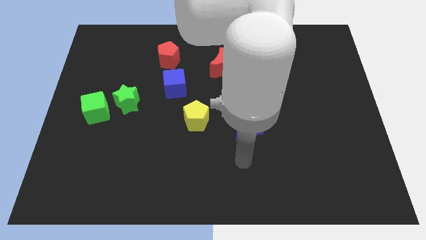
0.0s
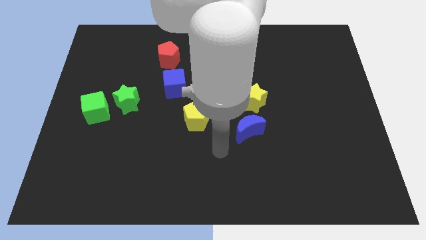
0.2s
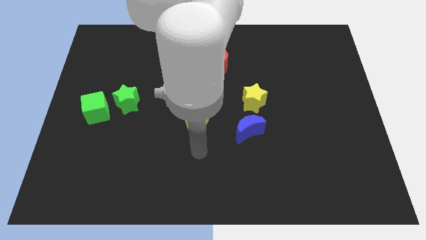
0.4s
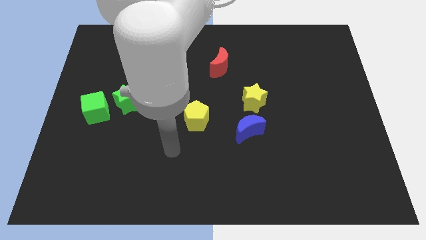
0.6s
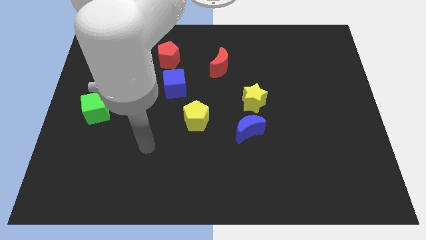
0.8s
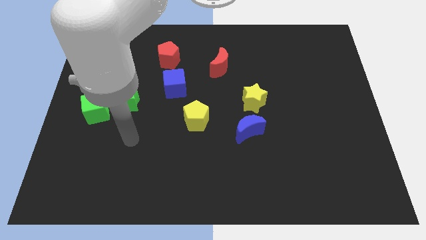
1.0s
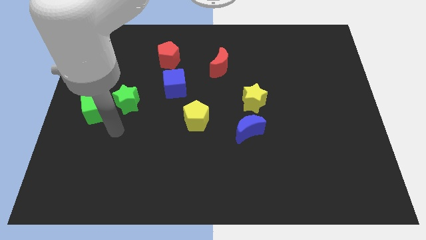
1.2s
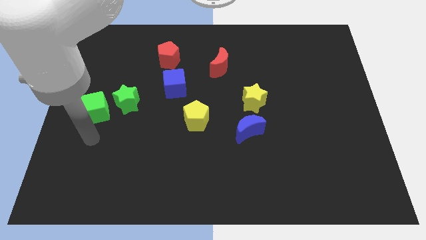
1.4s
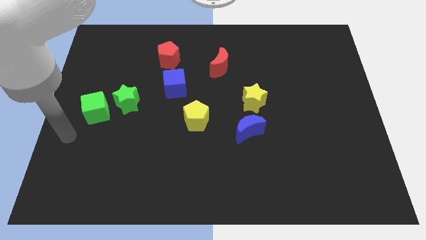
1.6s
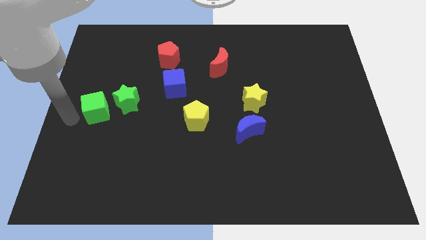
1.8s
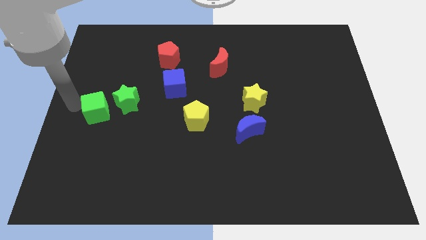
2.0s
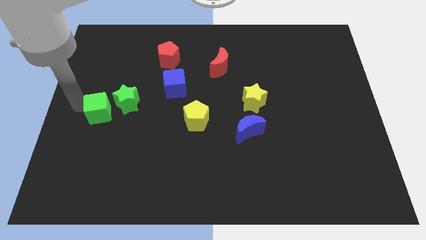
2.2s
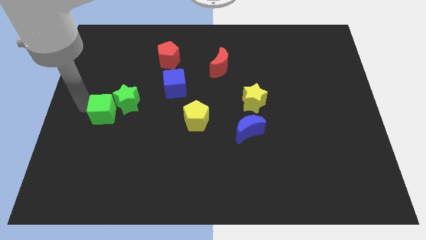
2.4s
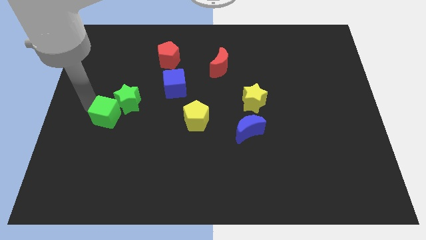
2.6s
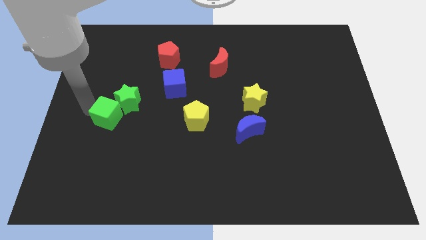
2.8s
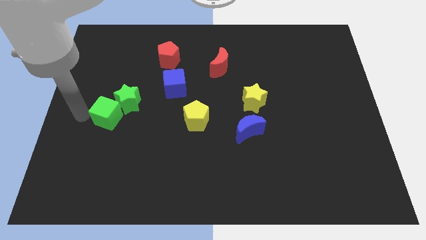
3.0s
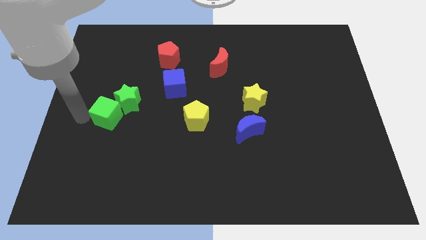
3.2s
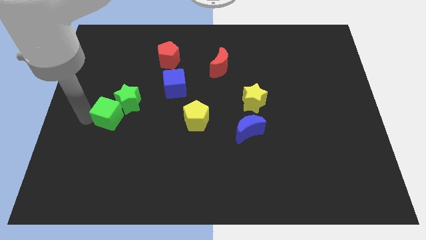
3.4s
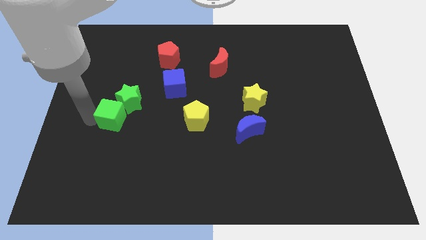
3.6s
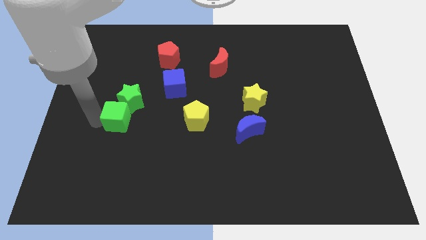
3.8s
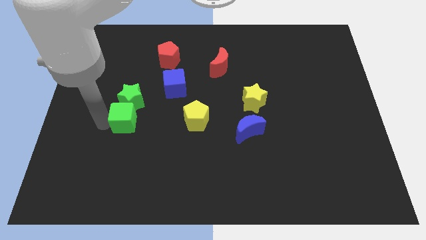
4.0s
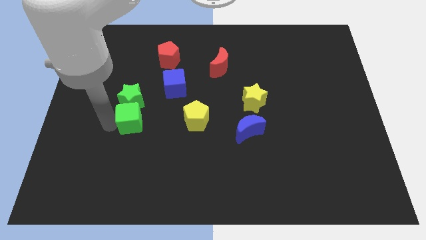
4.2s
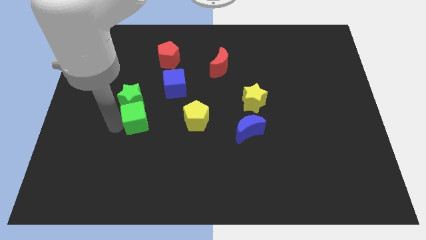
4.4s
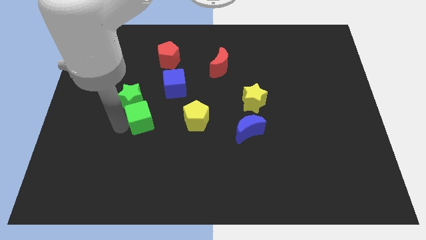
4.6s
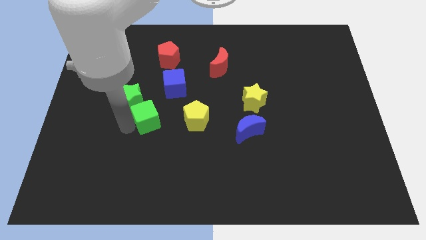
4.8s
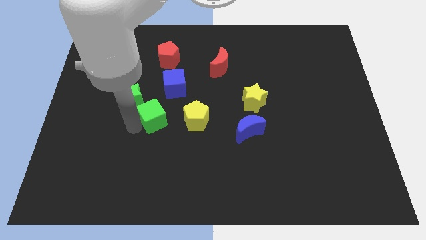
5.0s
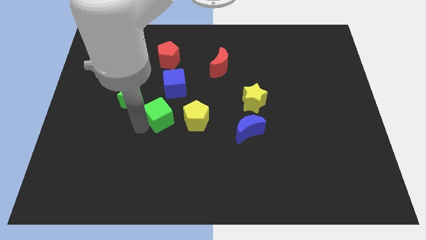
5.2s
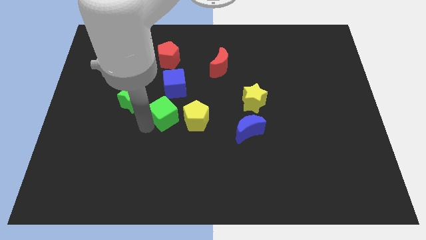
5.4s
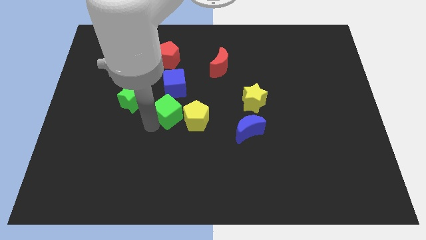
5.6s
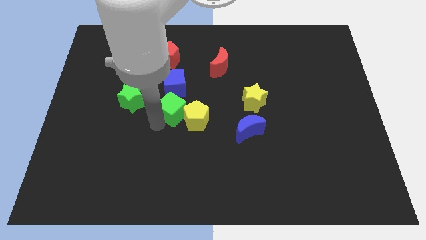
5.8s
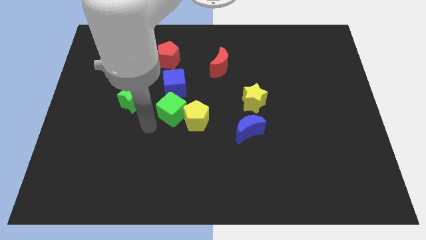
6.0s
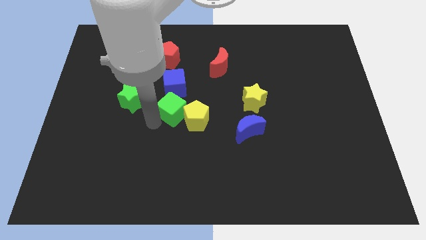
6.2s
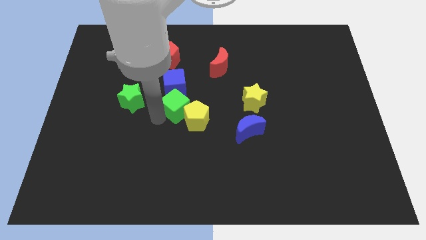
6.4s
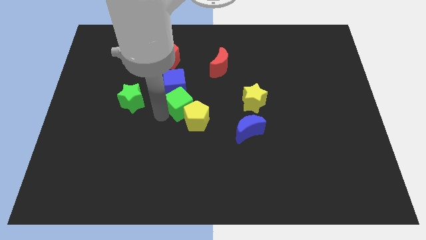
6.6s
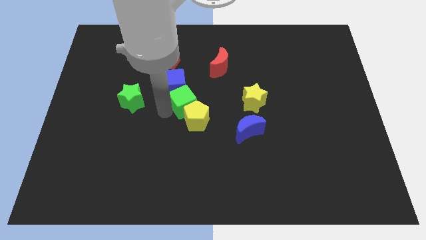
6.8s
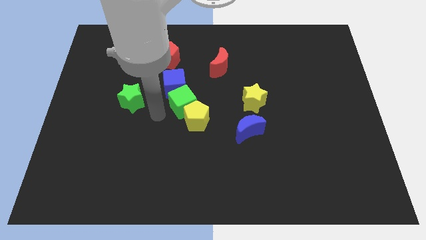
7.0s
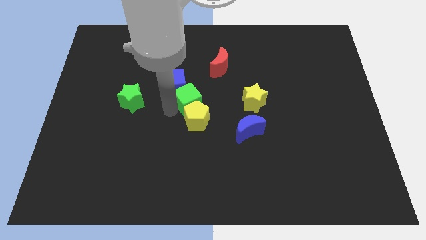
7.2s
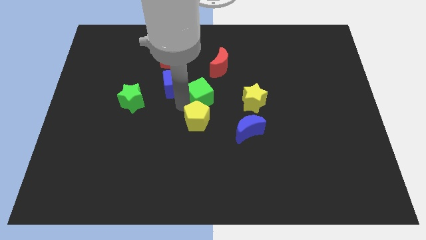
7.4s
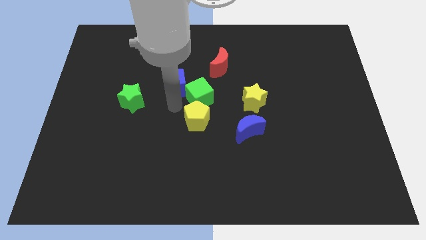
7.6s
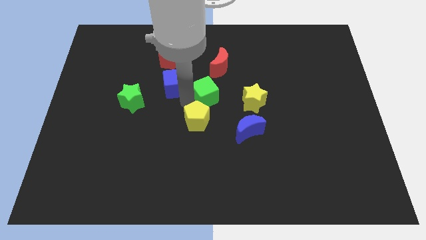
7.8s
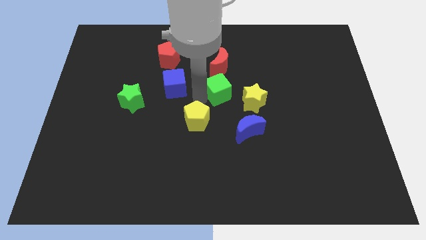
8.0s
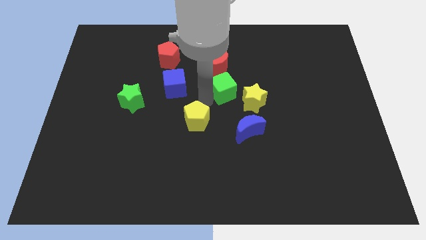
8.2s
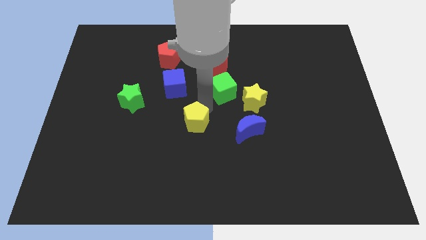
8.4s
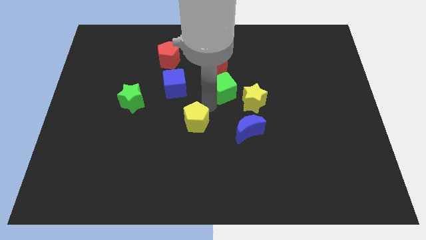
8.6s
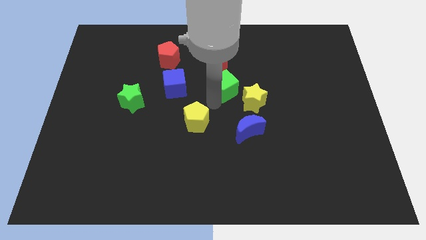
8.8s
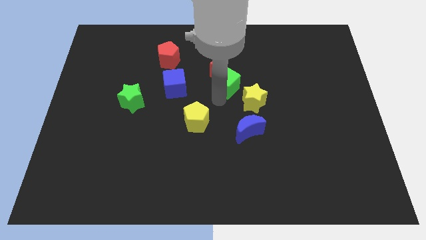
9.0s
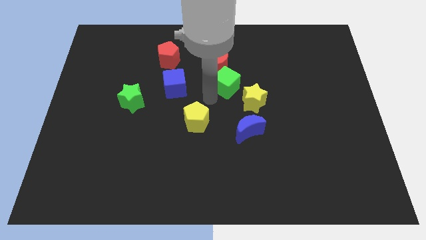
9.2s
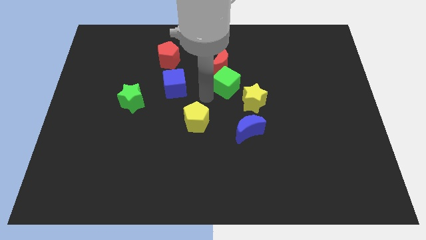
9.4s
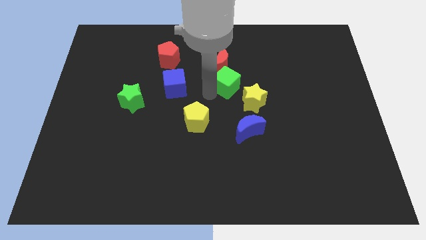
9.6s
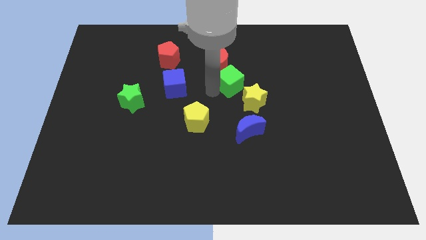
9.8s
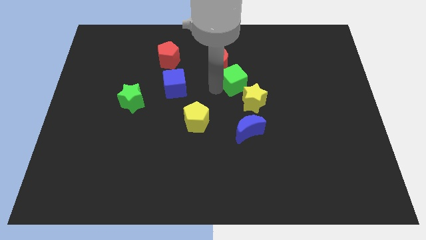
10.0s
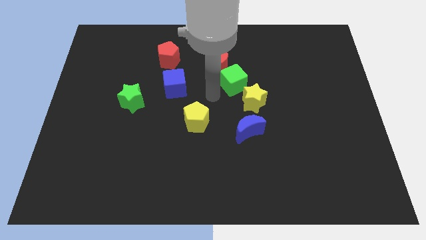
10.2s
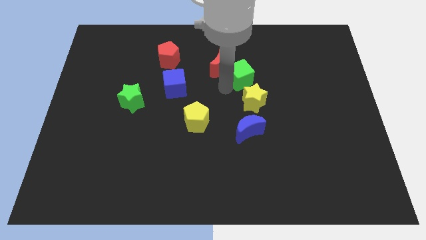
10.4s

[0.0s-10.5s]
put the green cube to the right side of the red moon

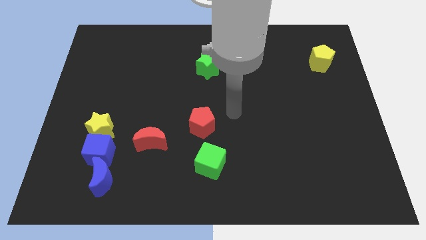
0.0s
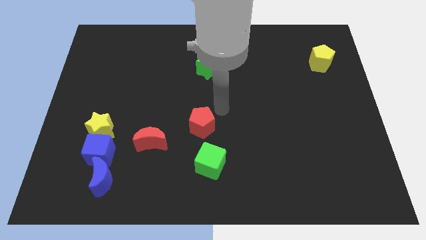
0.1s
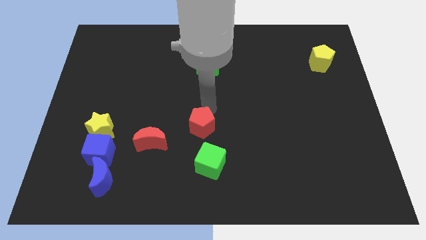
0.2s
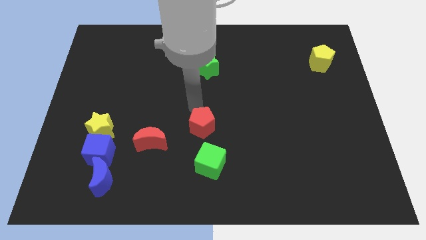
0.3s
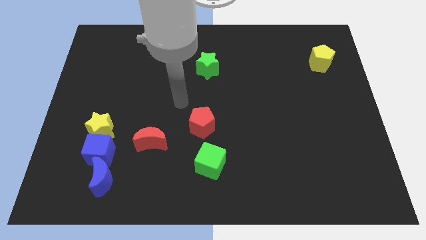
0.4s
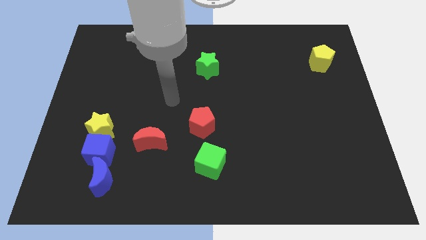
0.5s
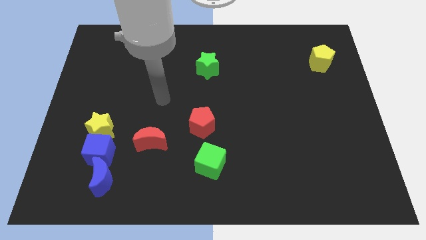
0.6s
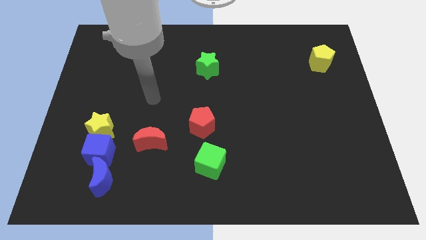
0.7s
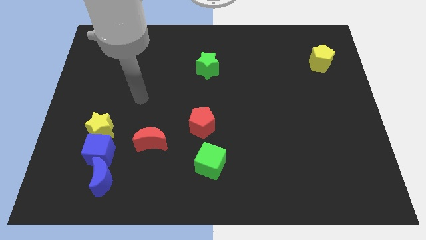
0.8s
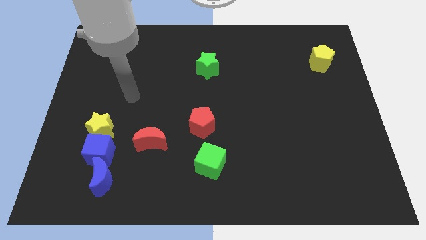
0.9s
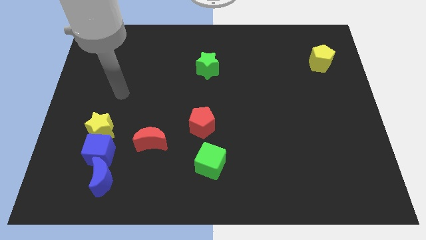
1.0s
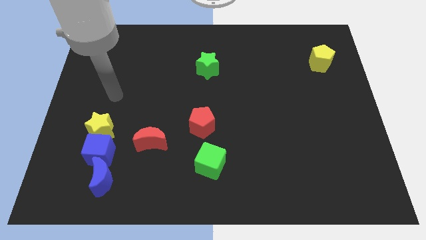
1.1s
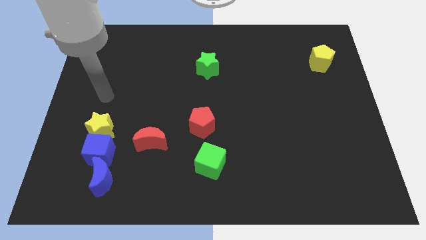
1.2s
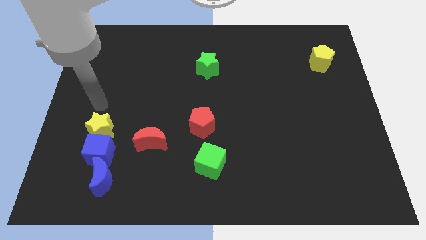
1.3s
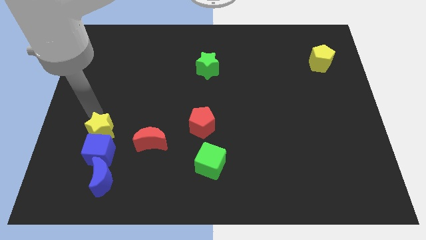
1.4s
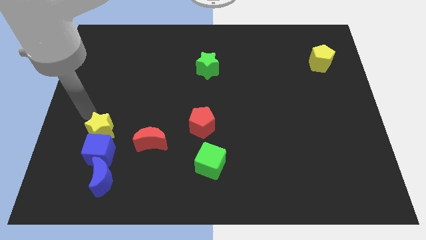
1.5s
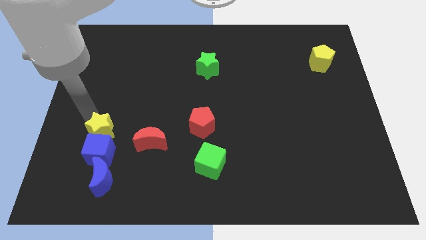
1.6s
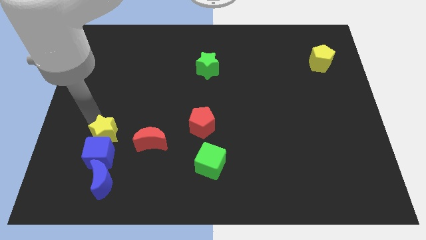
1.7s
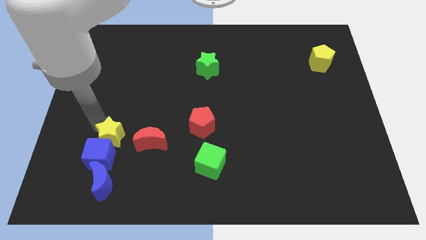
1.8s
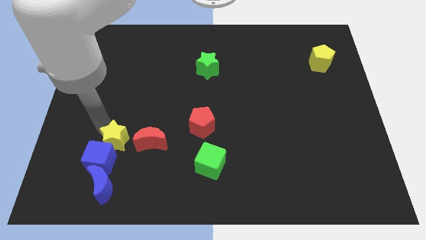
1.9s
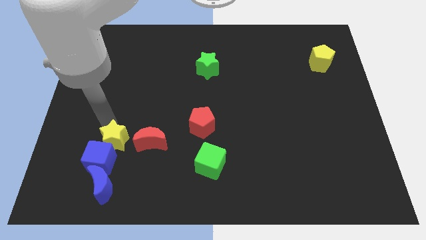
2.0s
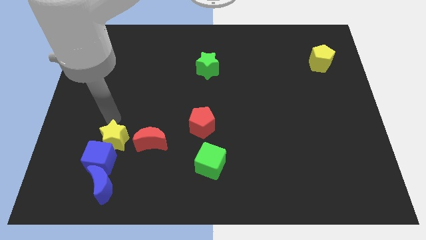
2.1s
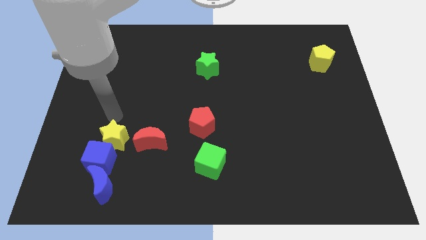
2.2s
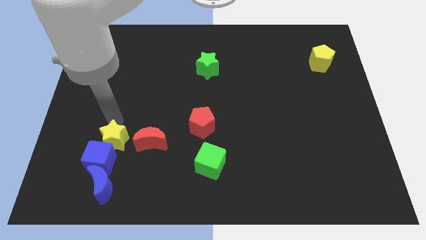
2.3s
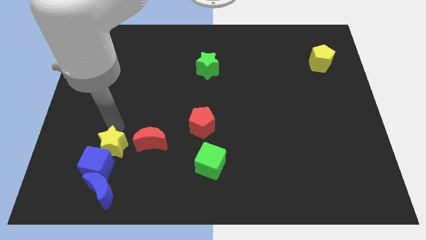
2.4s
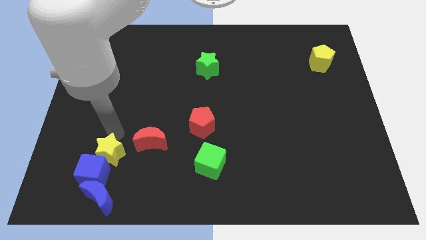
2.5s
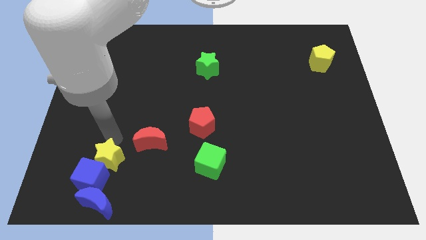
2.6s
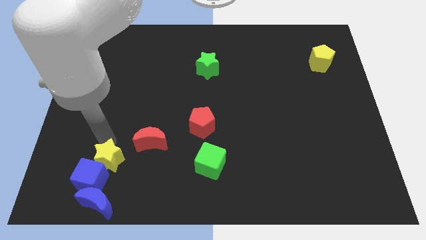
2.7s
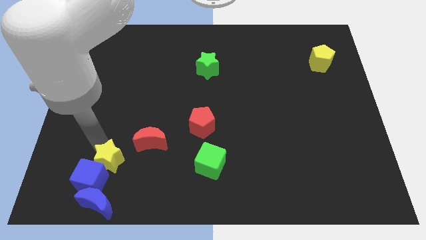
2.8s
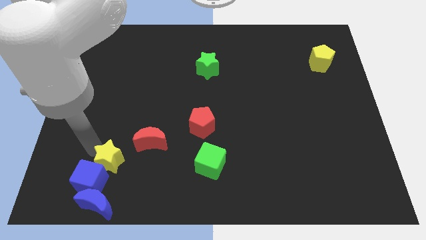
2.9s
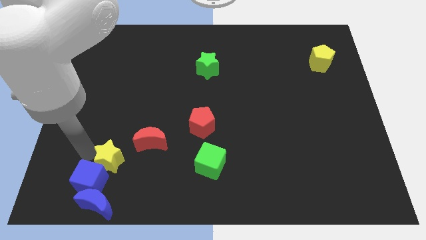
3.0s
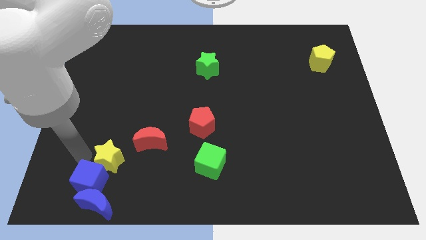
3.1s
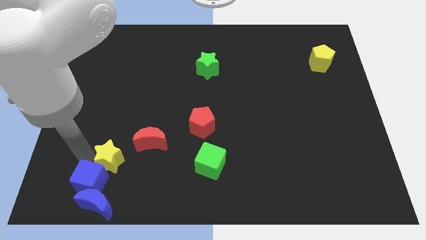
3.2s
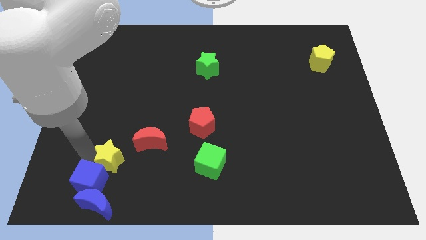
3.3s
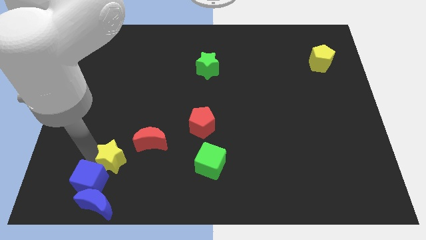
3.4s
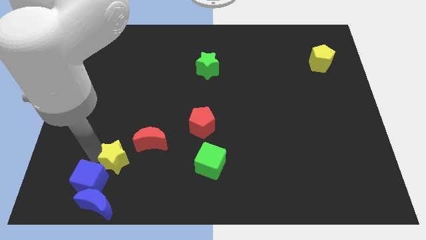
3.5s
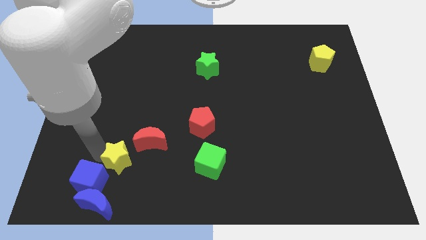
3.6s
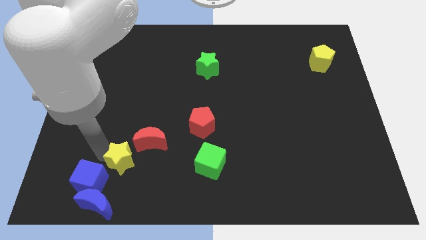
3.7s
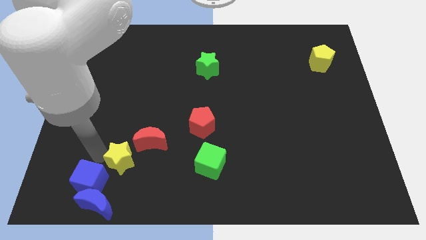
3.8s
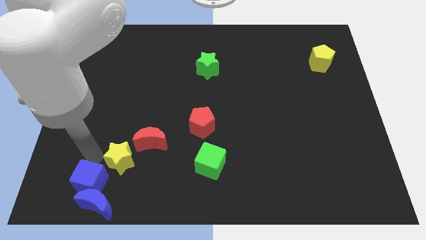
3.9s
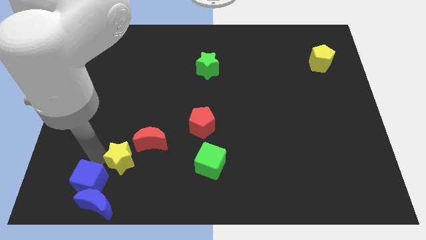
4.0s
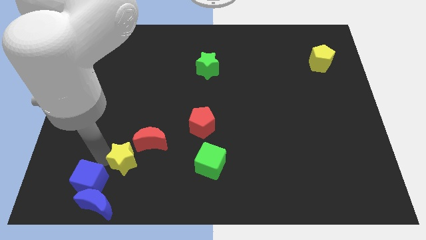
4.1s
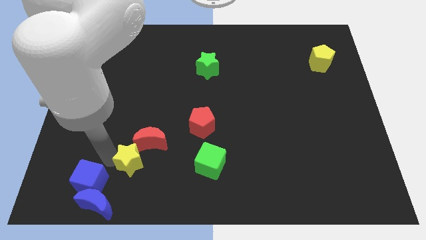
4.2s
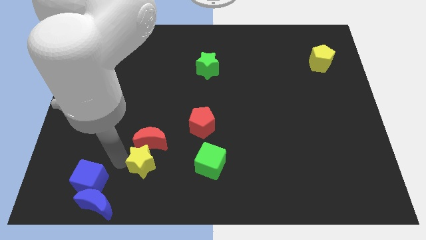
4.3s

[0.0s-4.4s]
put the yellow star diagonally down and to the right of the red moon
